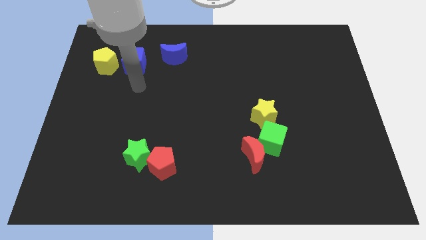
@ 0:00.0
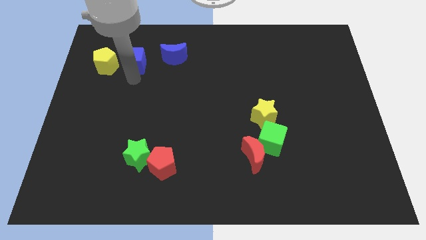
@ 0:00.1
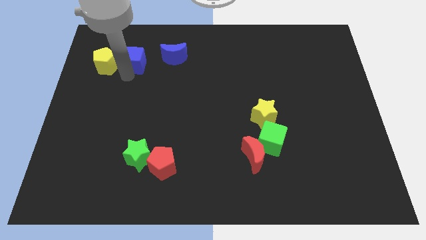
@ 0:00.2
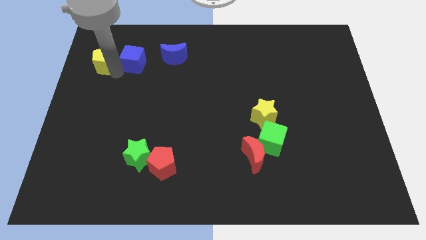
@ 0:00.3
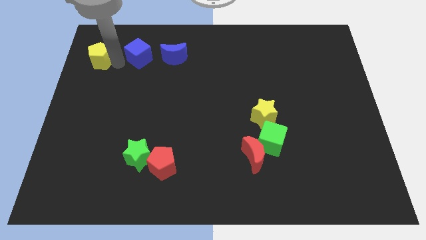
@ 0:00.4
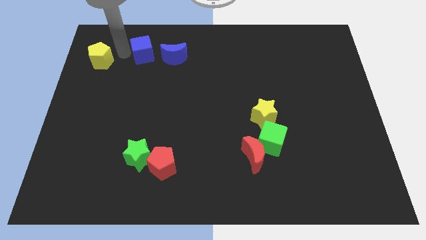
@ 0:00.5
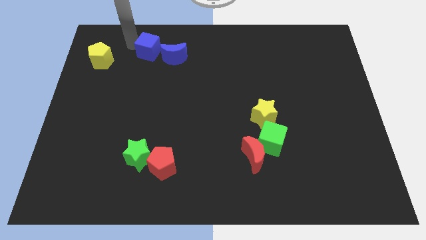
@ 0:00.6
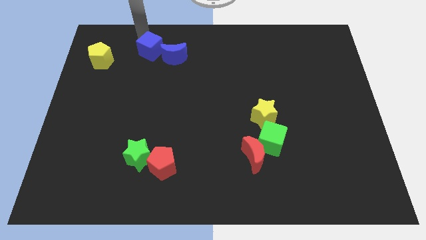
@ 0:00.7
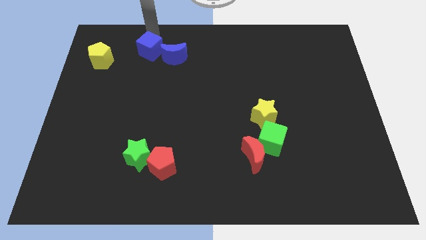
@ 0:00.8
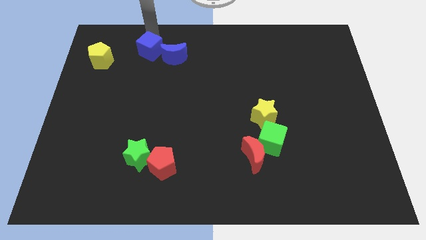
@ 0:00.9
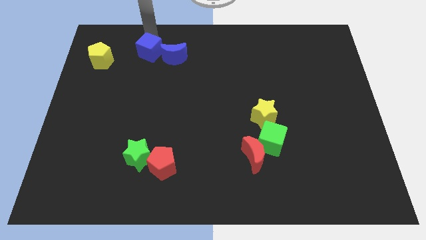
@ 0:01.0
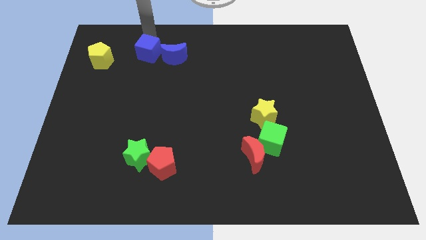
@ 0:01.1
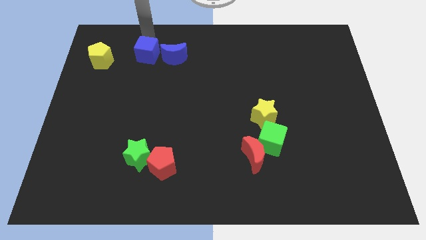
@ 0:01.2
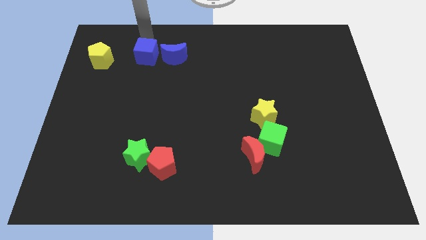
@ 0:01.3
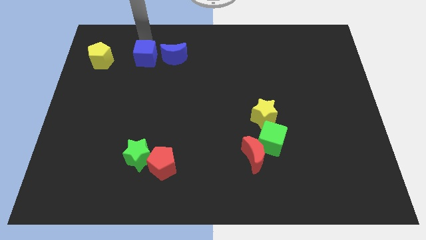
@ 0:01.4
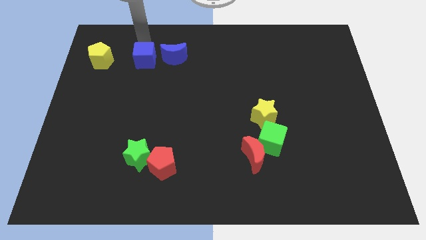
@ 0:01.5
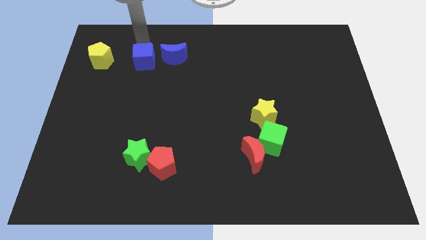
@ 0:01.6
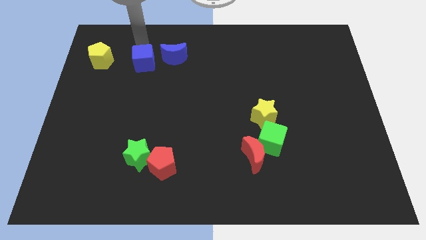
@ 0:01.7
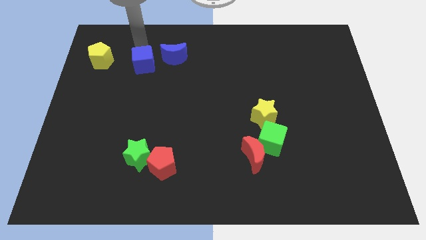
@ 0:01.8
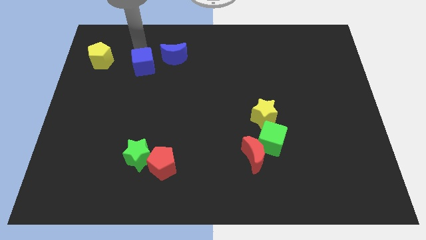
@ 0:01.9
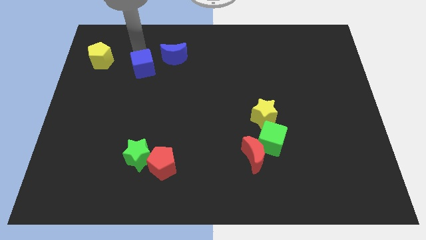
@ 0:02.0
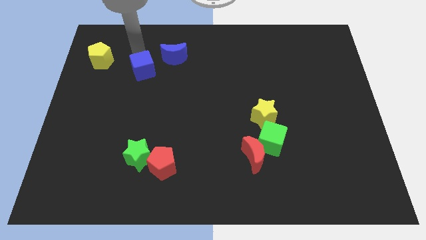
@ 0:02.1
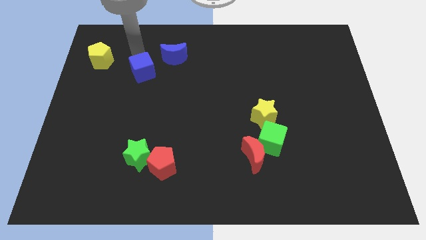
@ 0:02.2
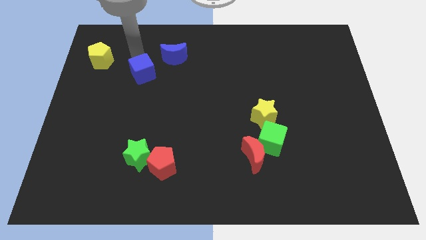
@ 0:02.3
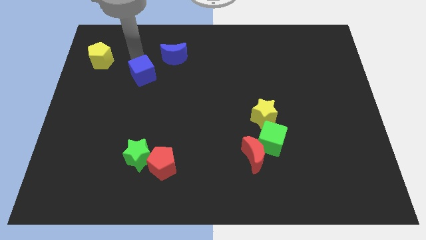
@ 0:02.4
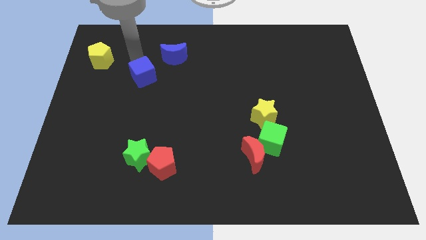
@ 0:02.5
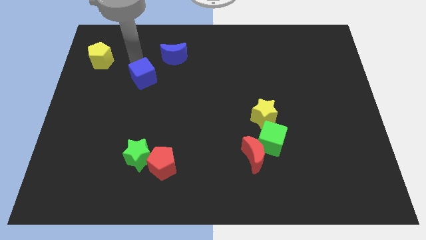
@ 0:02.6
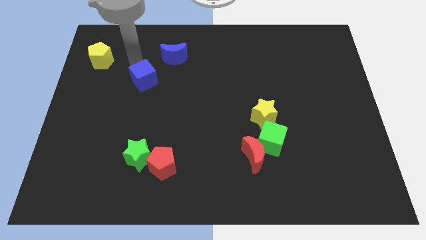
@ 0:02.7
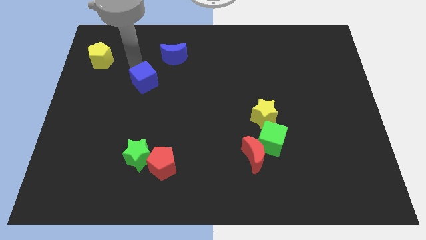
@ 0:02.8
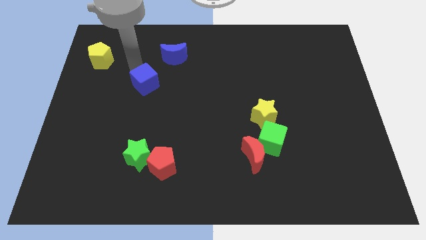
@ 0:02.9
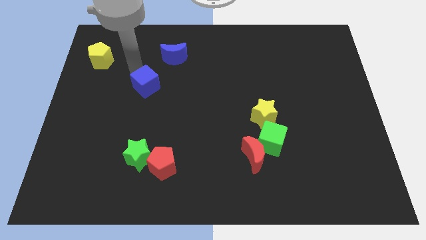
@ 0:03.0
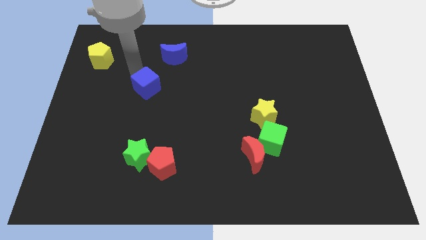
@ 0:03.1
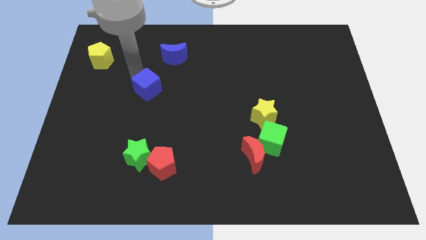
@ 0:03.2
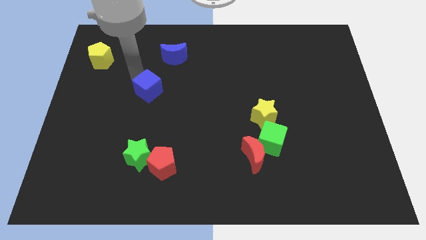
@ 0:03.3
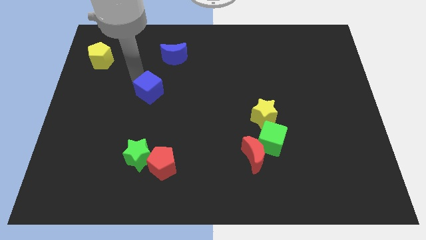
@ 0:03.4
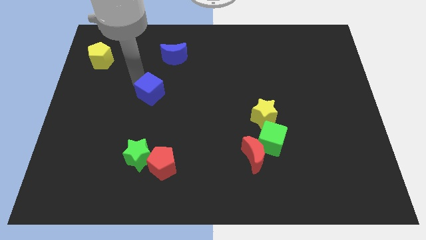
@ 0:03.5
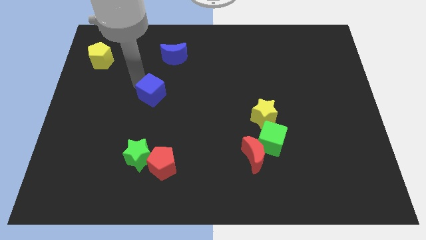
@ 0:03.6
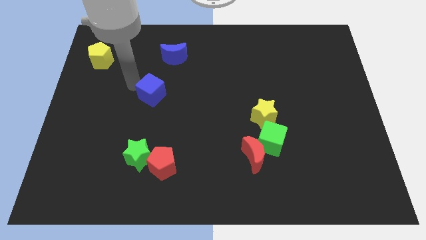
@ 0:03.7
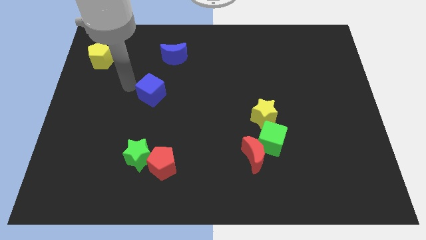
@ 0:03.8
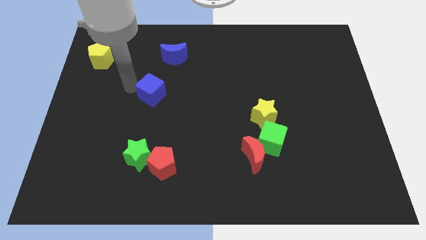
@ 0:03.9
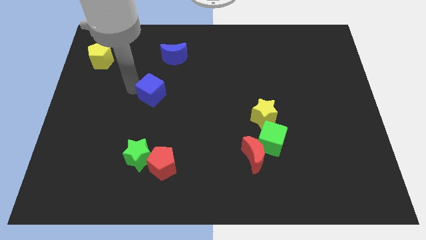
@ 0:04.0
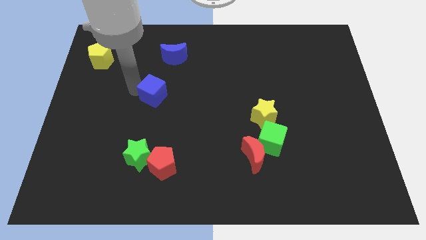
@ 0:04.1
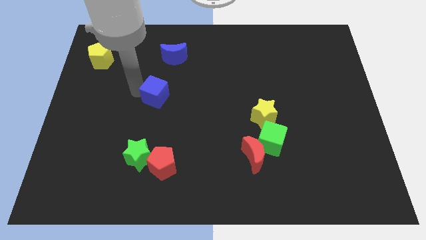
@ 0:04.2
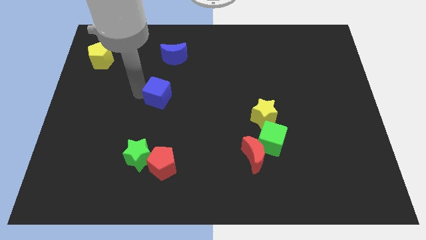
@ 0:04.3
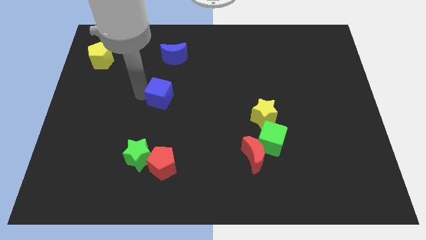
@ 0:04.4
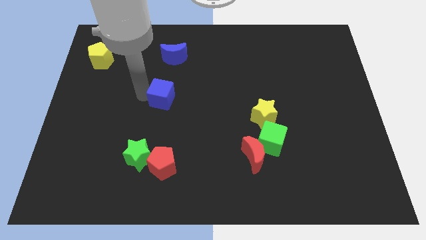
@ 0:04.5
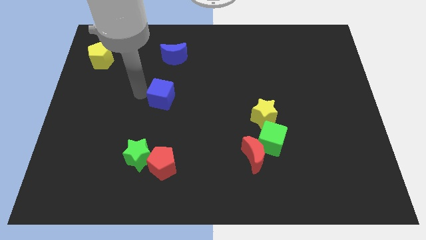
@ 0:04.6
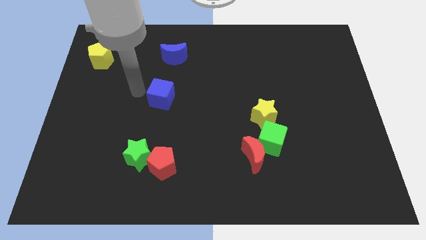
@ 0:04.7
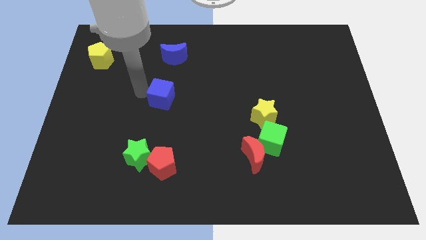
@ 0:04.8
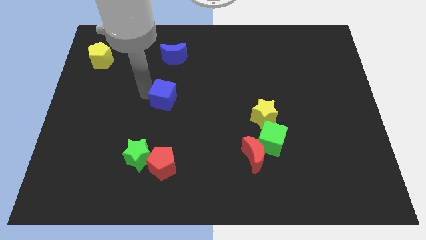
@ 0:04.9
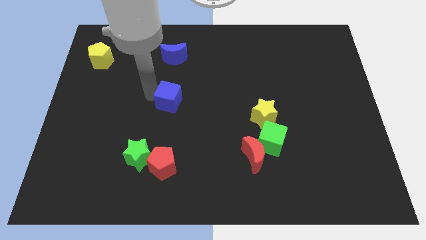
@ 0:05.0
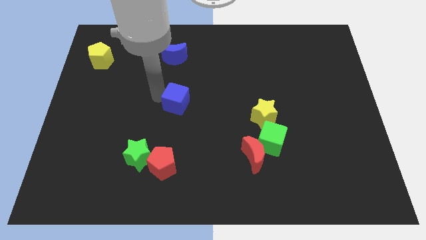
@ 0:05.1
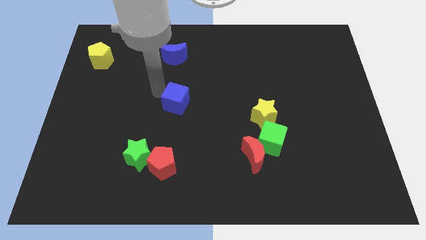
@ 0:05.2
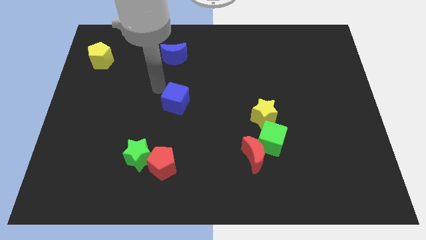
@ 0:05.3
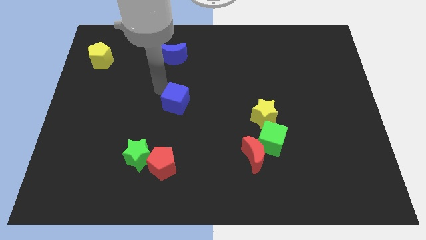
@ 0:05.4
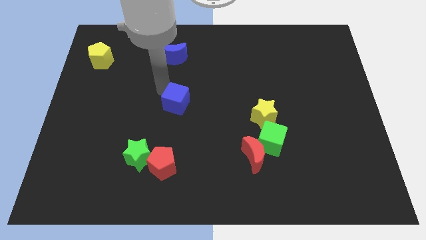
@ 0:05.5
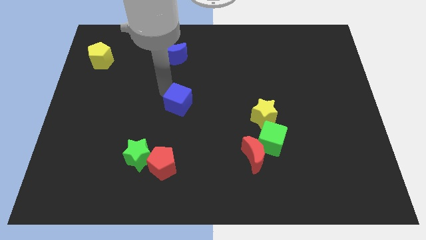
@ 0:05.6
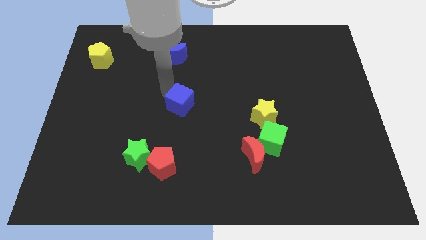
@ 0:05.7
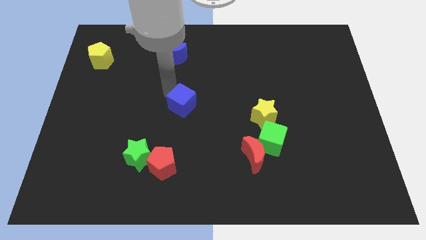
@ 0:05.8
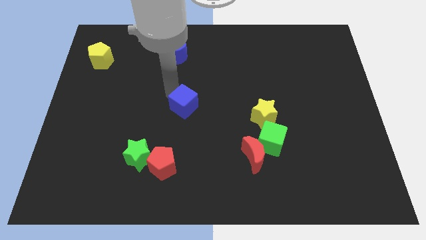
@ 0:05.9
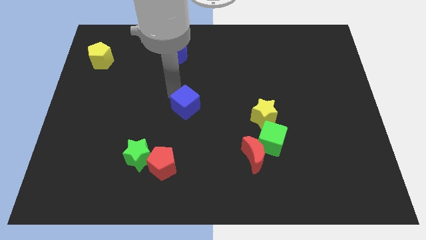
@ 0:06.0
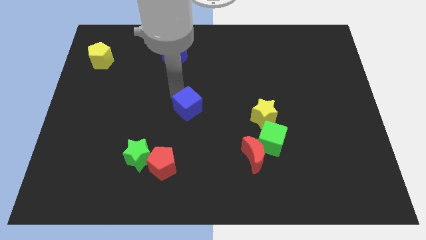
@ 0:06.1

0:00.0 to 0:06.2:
slide the blue cube down and right

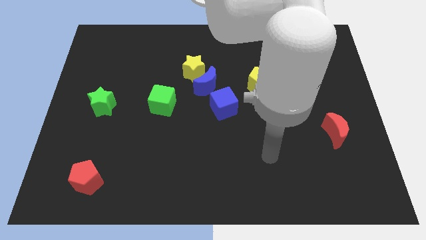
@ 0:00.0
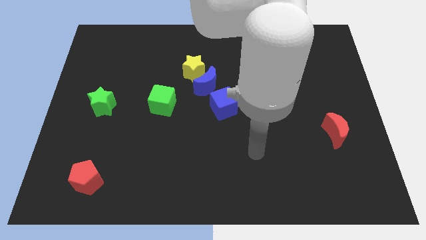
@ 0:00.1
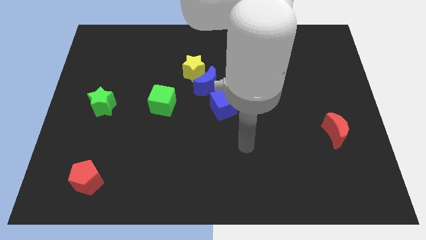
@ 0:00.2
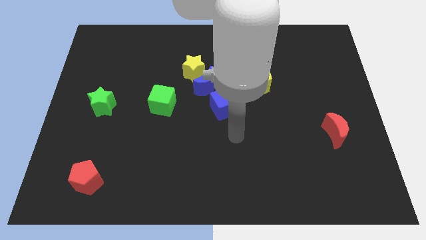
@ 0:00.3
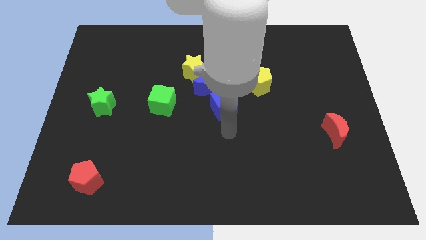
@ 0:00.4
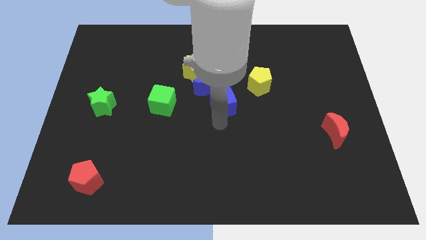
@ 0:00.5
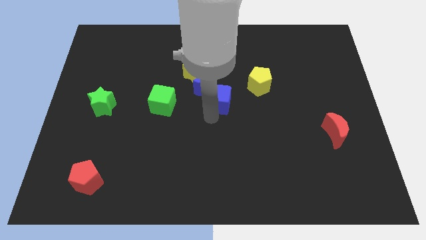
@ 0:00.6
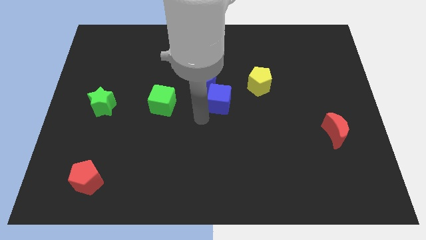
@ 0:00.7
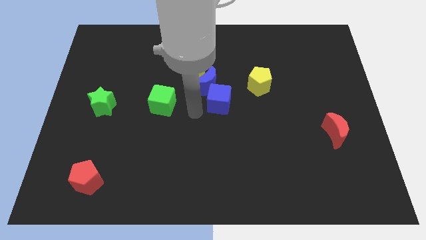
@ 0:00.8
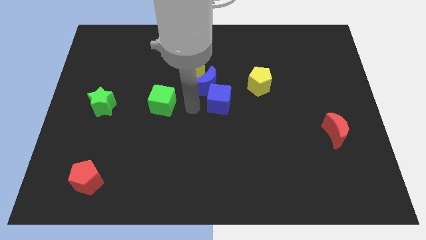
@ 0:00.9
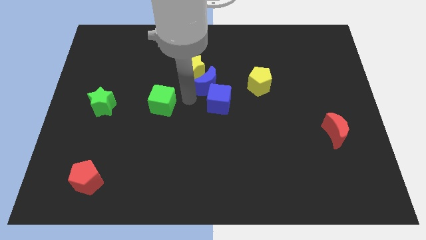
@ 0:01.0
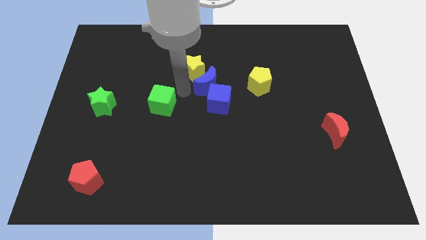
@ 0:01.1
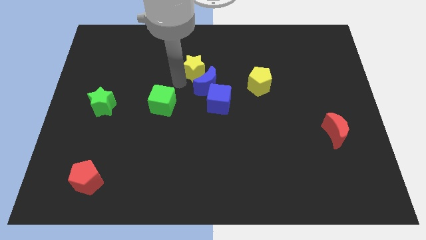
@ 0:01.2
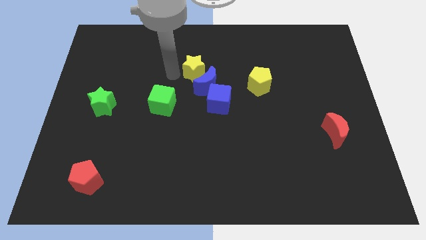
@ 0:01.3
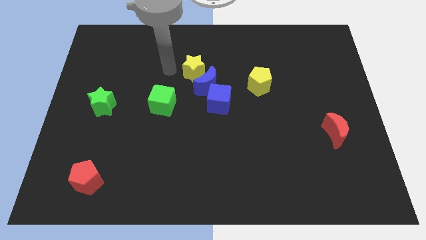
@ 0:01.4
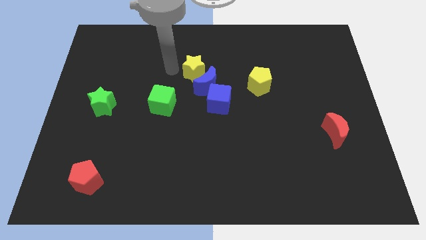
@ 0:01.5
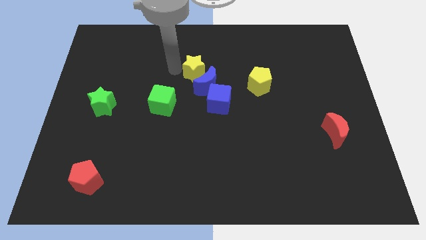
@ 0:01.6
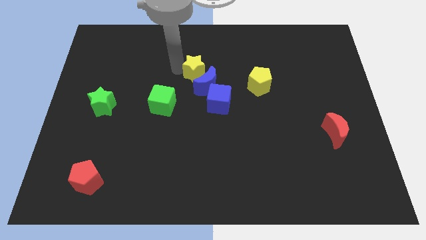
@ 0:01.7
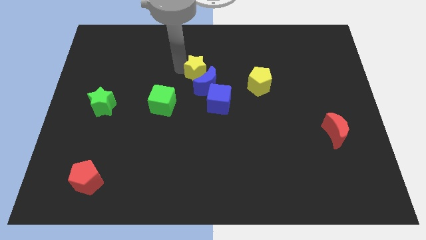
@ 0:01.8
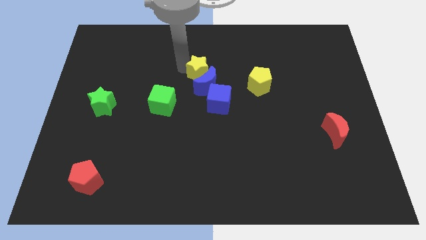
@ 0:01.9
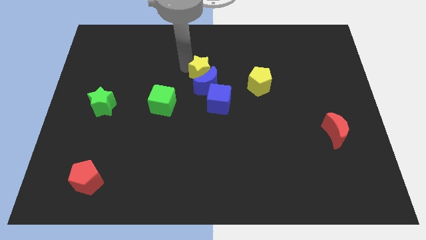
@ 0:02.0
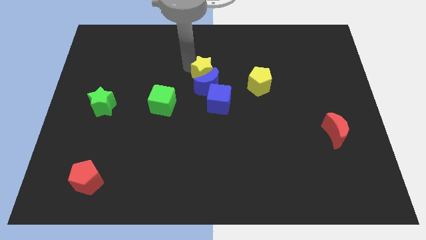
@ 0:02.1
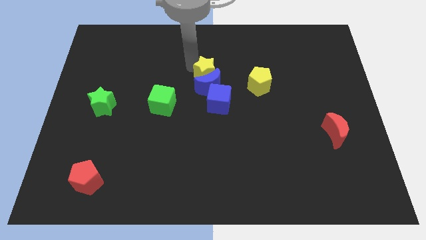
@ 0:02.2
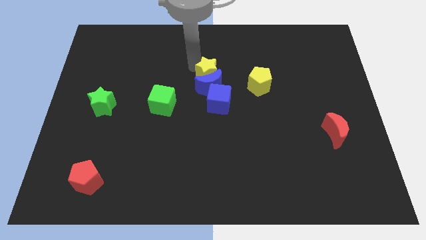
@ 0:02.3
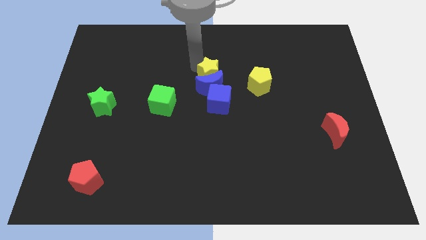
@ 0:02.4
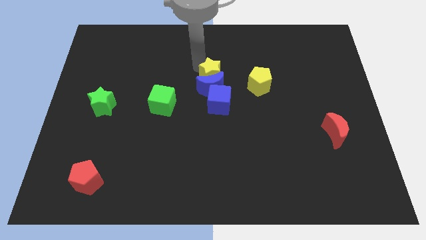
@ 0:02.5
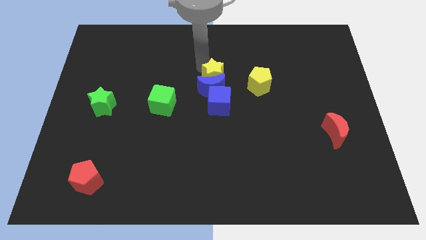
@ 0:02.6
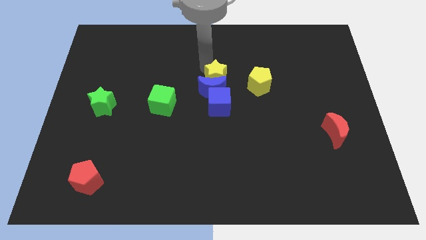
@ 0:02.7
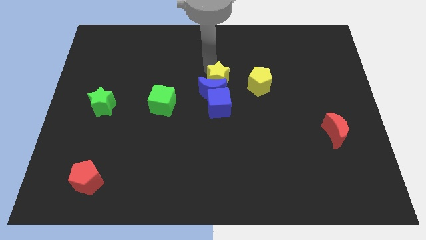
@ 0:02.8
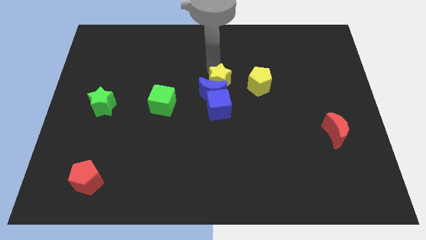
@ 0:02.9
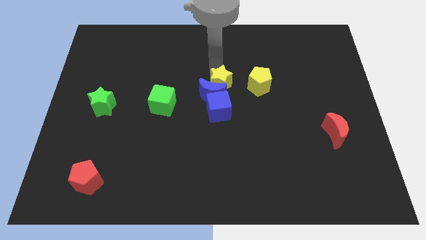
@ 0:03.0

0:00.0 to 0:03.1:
slightly slide the yellow star downwards and then to the right
